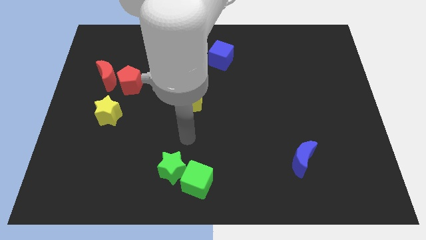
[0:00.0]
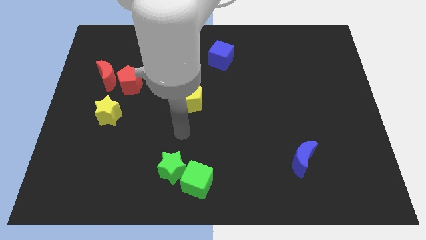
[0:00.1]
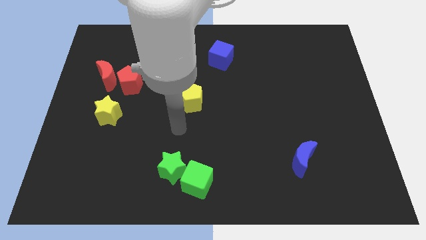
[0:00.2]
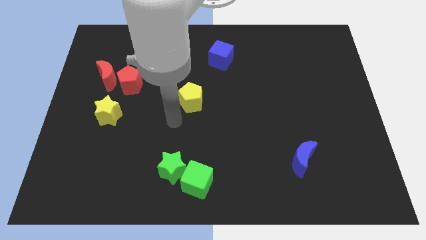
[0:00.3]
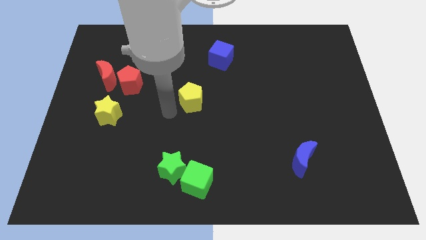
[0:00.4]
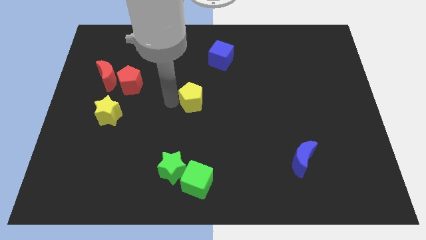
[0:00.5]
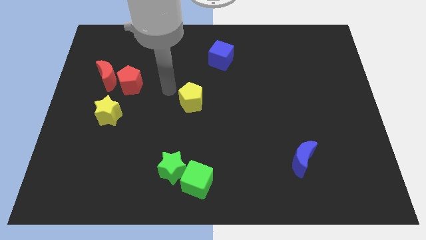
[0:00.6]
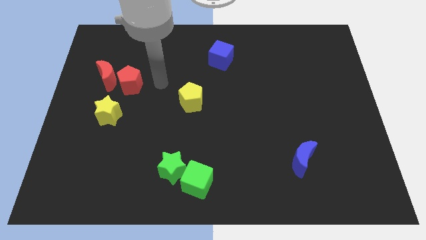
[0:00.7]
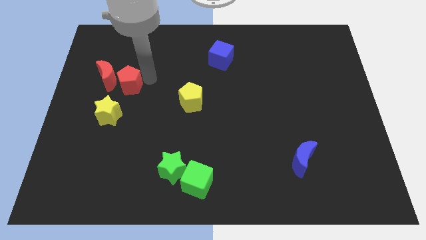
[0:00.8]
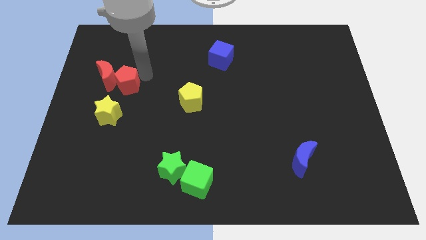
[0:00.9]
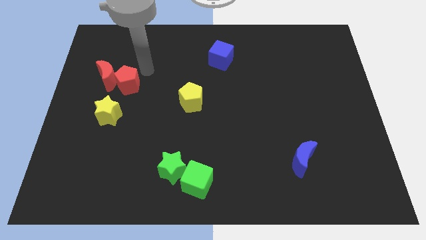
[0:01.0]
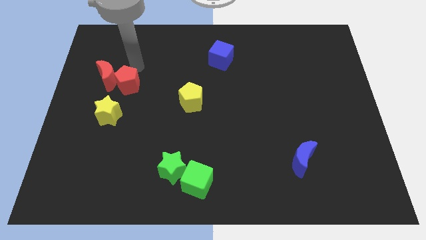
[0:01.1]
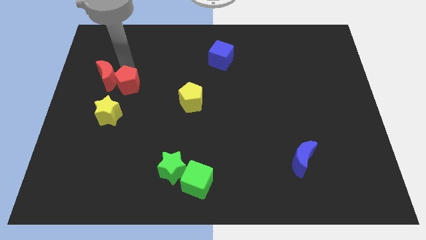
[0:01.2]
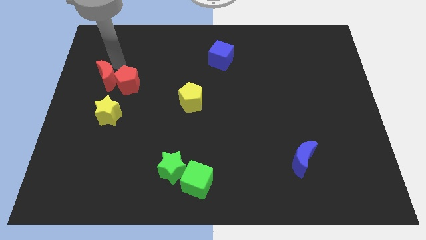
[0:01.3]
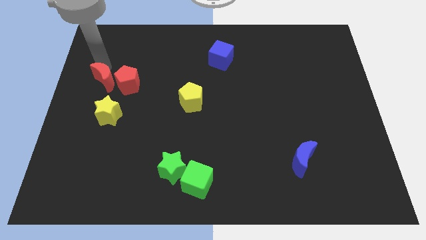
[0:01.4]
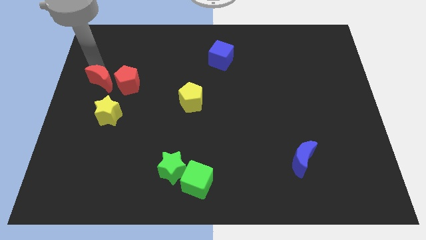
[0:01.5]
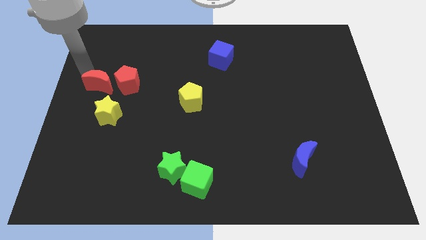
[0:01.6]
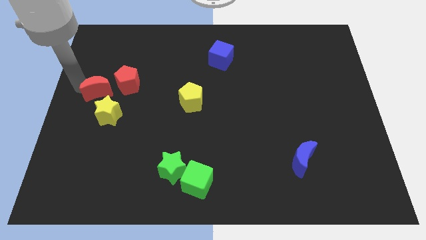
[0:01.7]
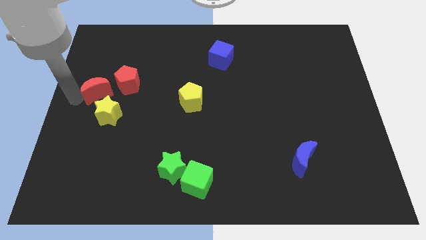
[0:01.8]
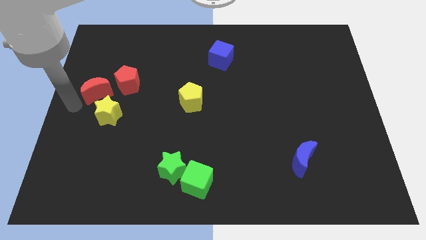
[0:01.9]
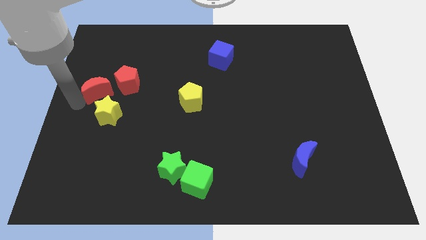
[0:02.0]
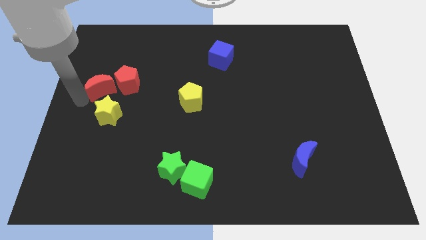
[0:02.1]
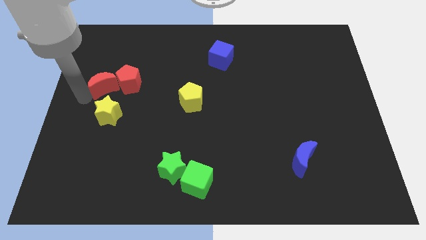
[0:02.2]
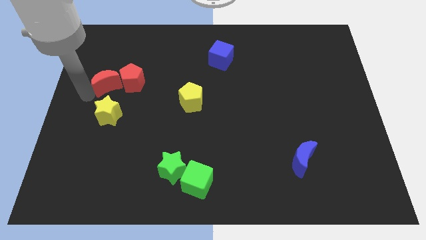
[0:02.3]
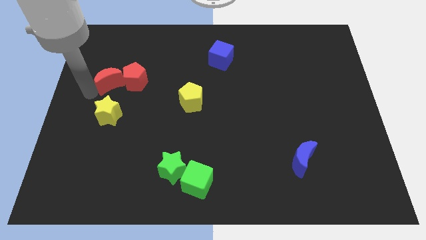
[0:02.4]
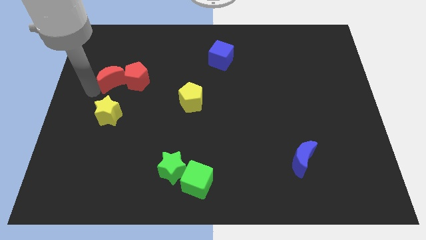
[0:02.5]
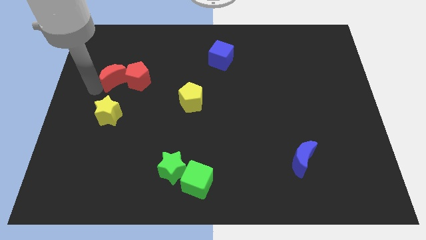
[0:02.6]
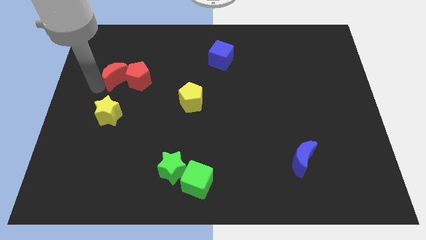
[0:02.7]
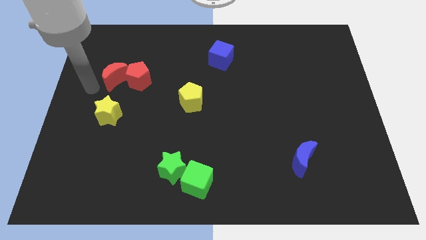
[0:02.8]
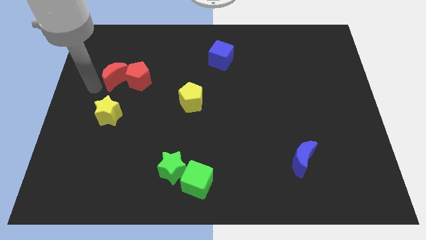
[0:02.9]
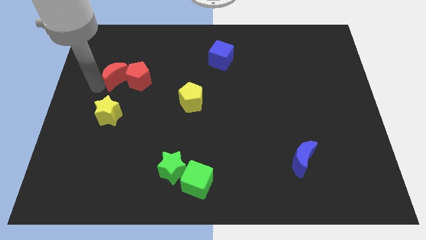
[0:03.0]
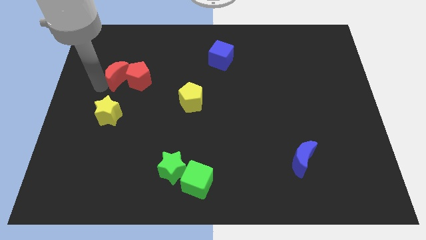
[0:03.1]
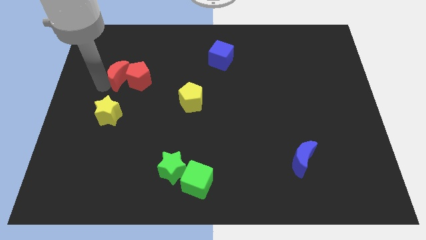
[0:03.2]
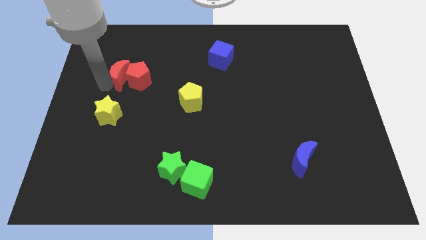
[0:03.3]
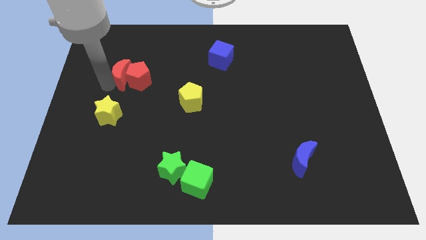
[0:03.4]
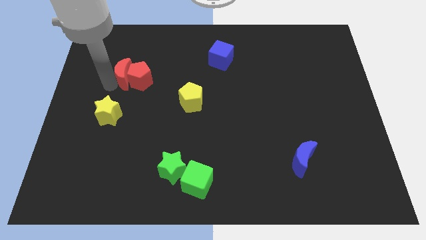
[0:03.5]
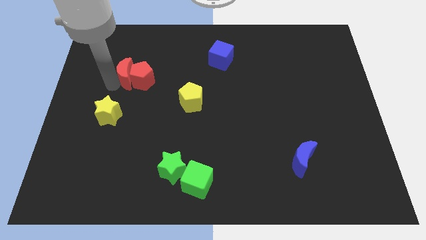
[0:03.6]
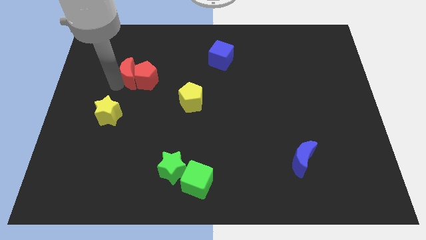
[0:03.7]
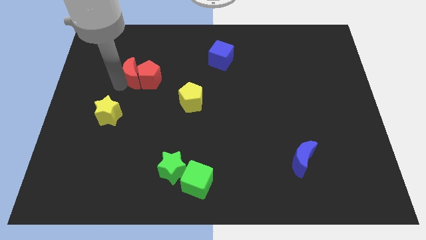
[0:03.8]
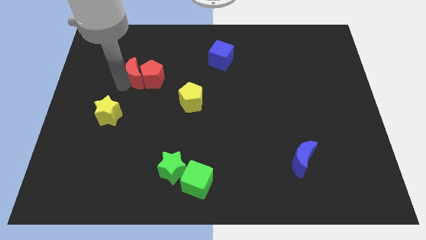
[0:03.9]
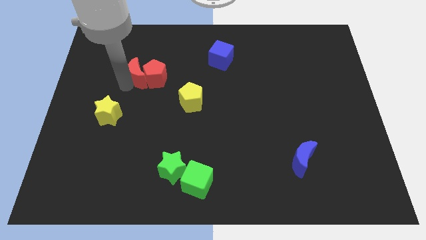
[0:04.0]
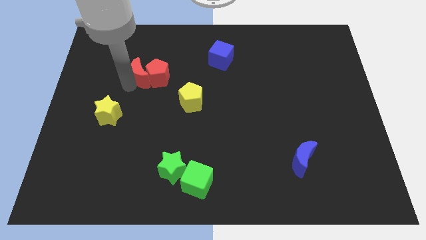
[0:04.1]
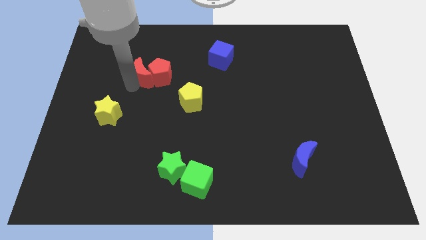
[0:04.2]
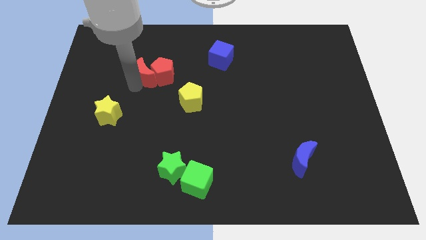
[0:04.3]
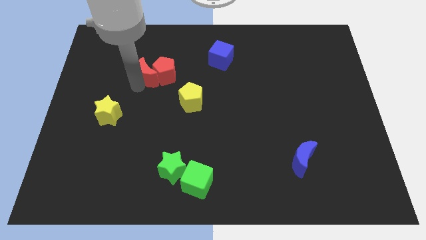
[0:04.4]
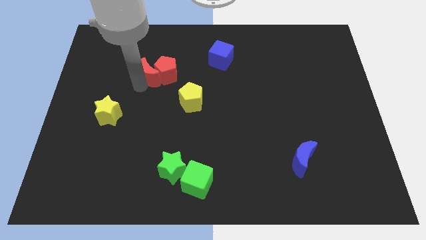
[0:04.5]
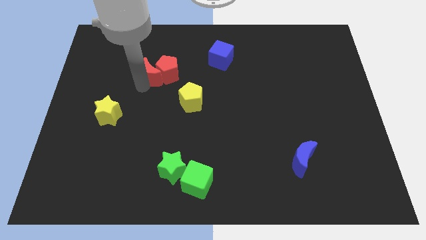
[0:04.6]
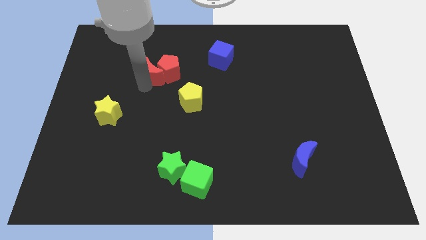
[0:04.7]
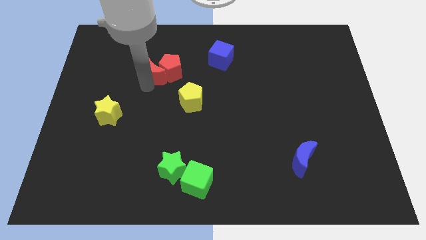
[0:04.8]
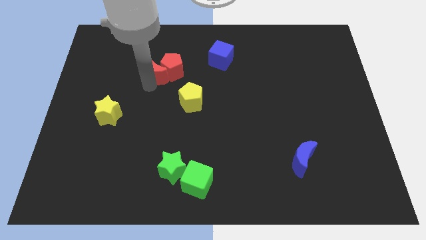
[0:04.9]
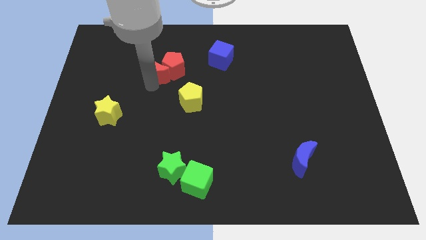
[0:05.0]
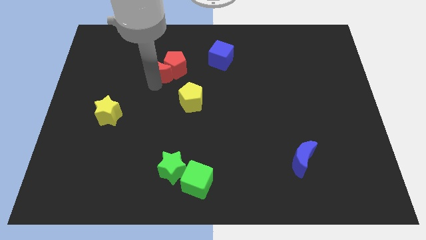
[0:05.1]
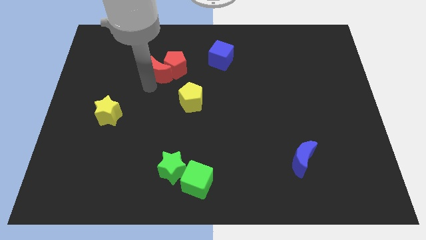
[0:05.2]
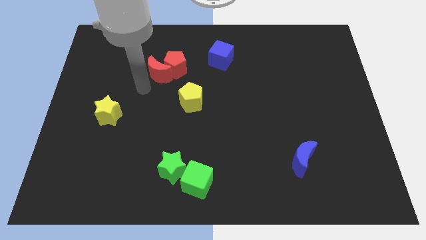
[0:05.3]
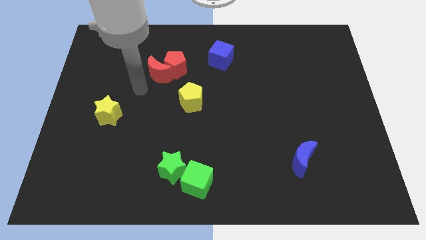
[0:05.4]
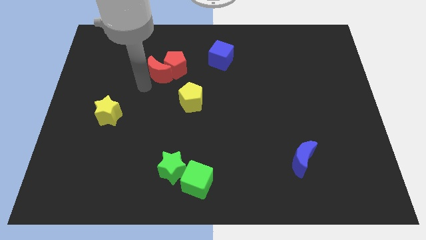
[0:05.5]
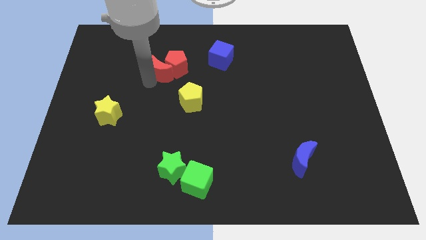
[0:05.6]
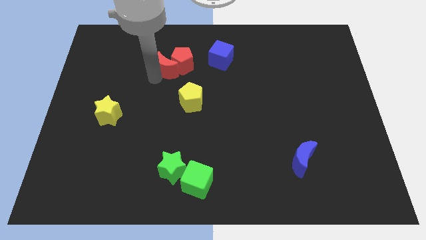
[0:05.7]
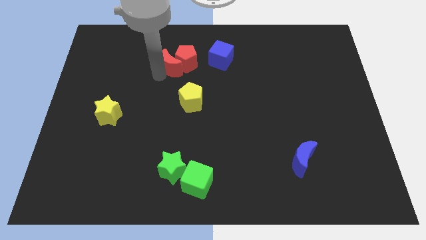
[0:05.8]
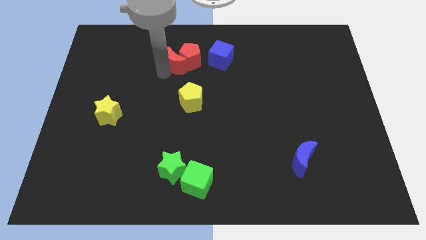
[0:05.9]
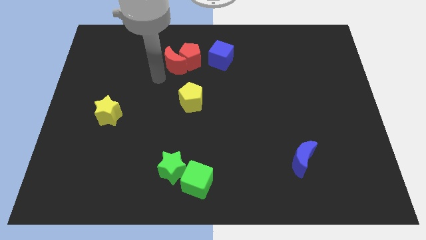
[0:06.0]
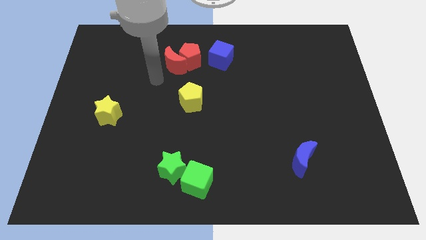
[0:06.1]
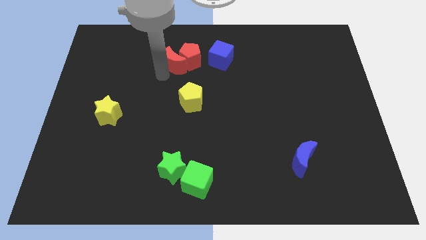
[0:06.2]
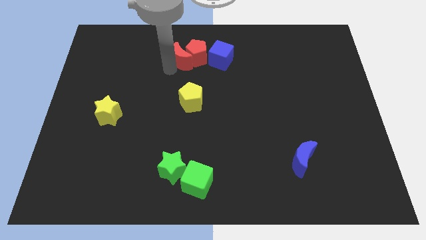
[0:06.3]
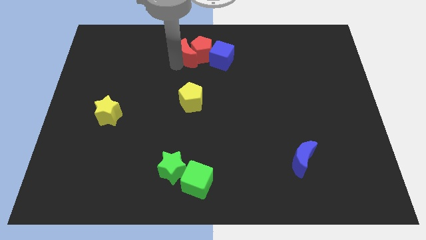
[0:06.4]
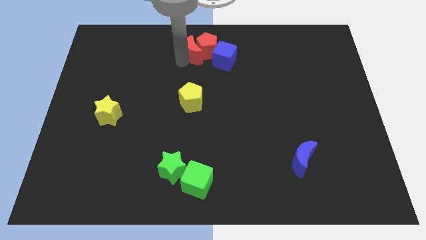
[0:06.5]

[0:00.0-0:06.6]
move the red moon to the top side
